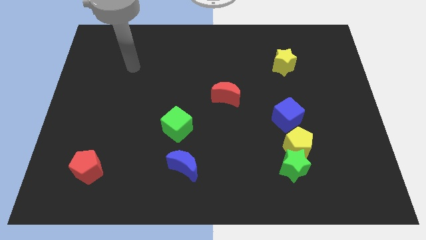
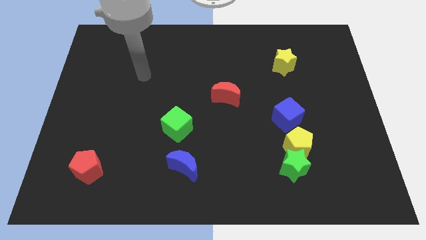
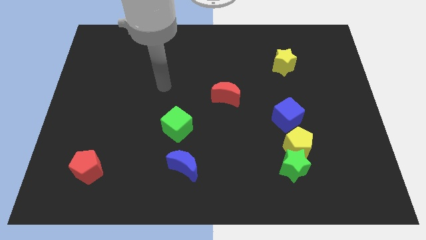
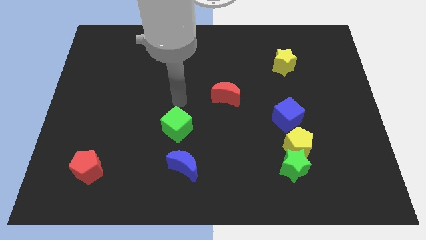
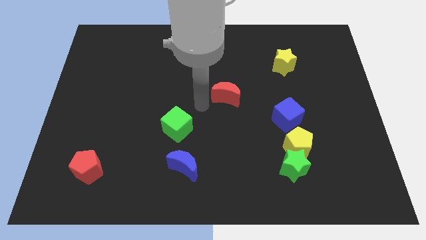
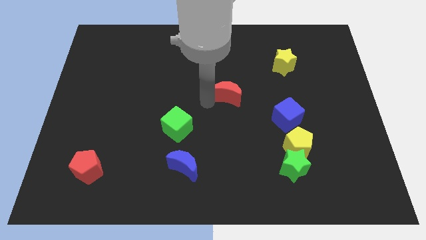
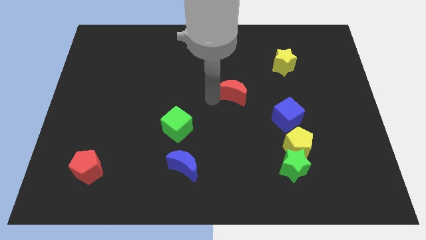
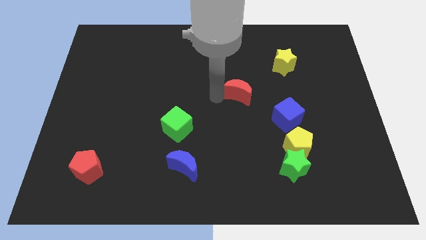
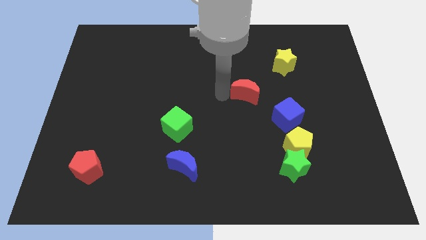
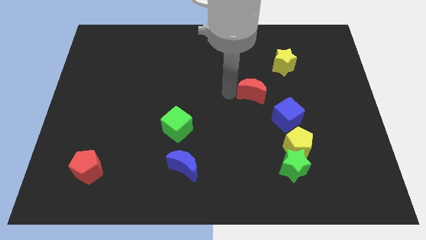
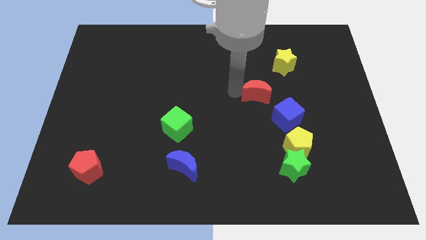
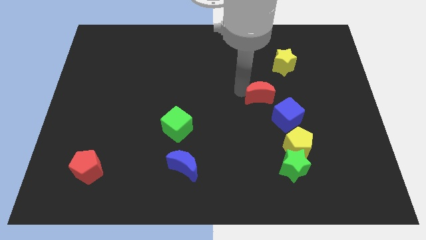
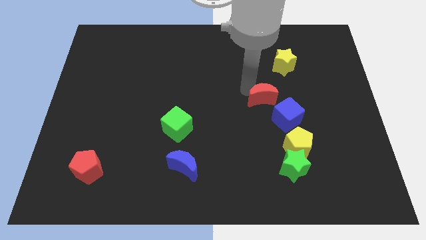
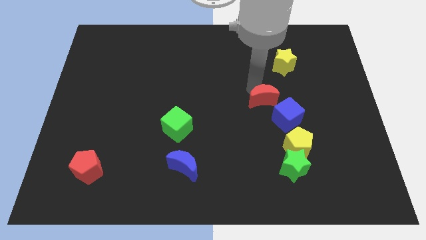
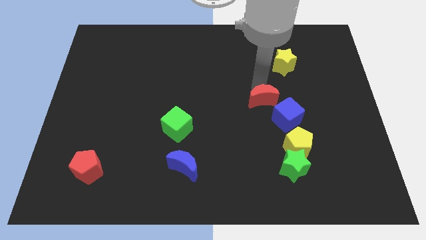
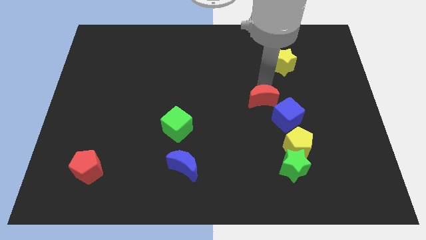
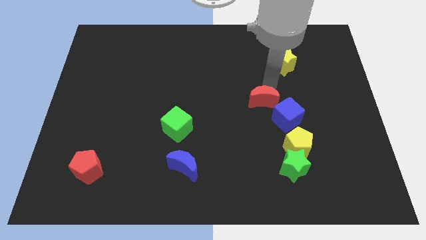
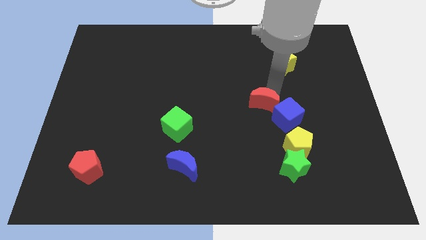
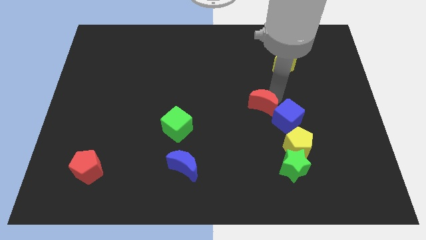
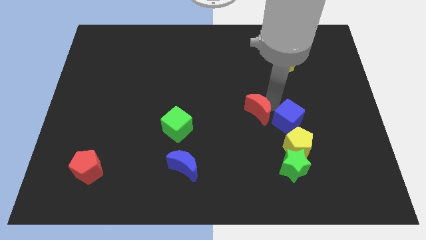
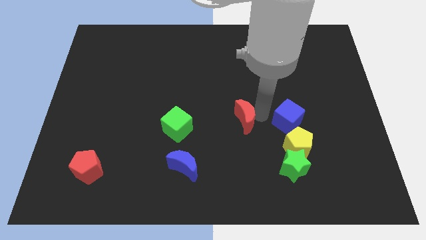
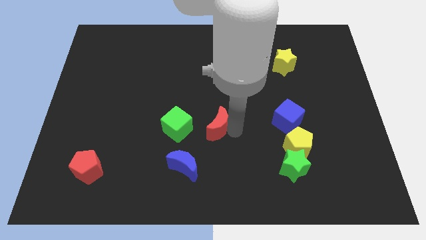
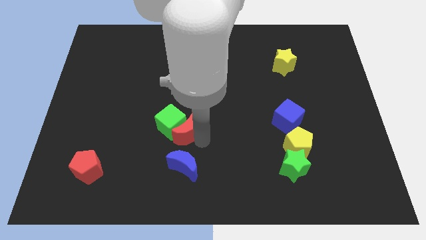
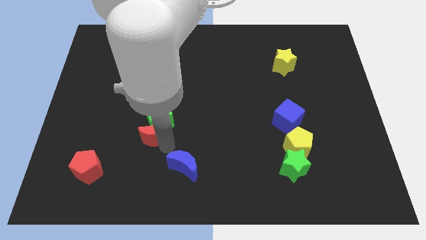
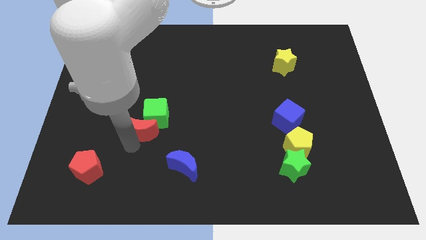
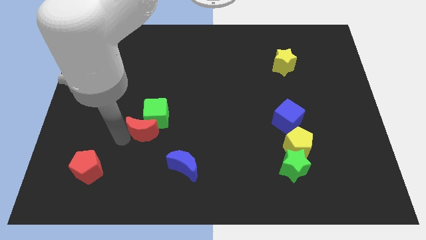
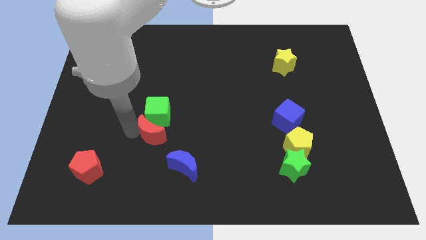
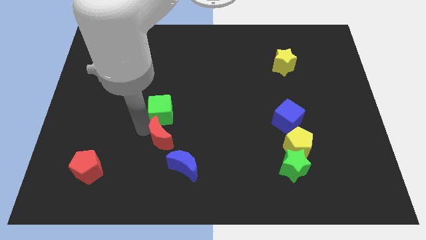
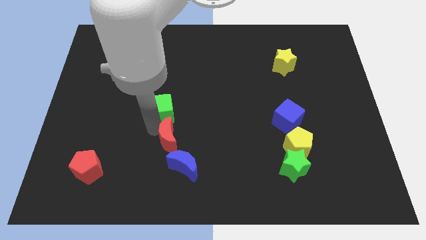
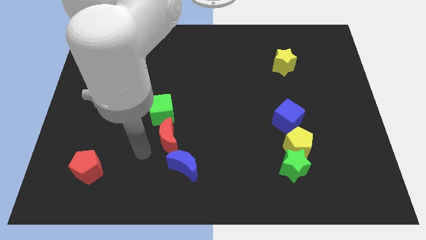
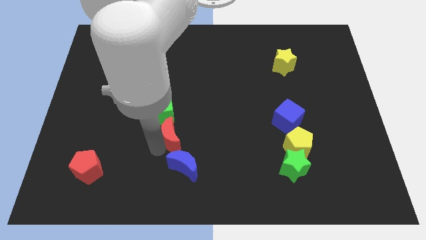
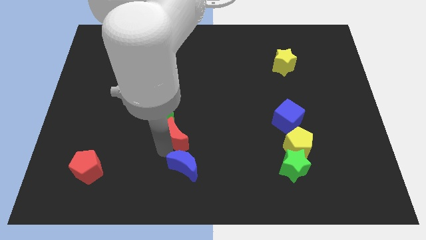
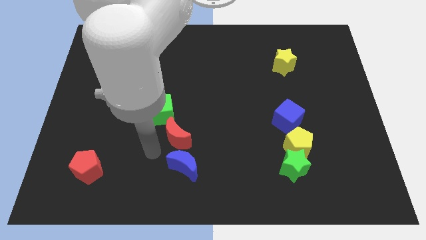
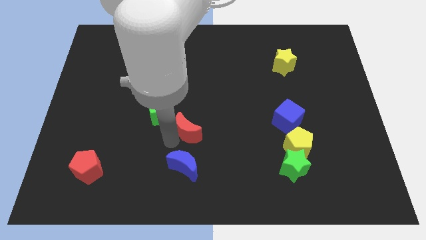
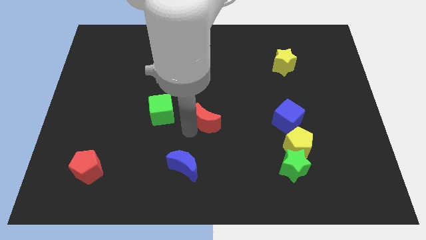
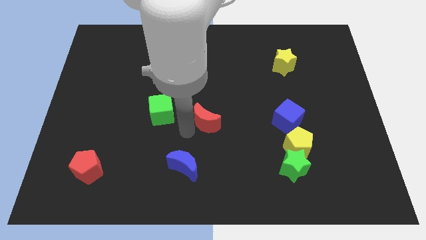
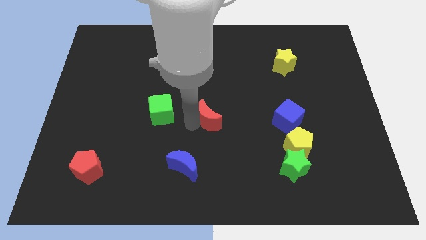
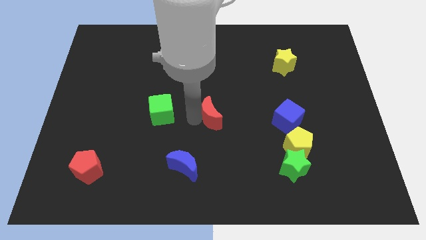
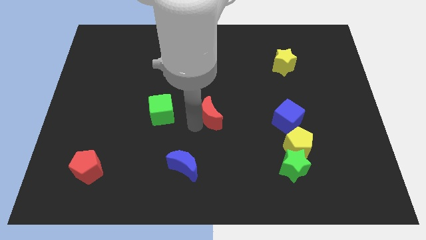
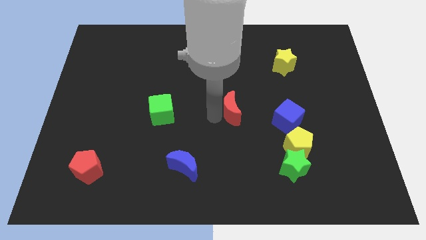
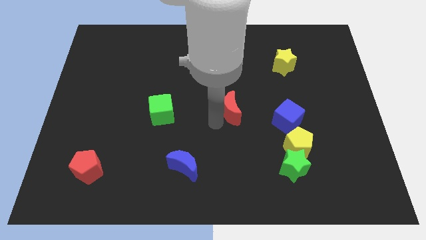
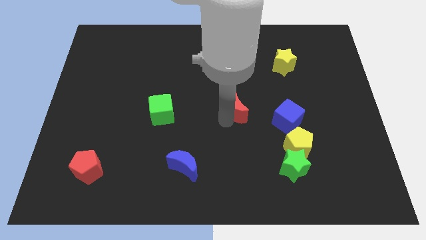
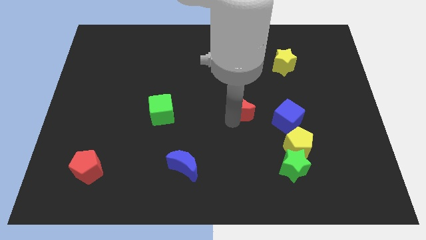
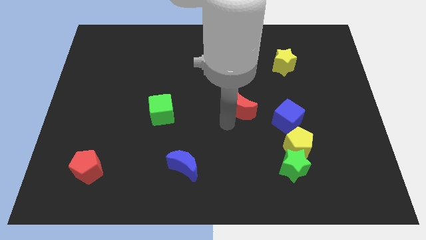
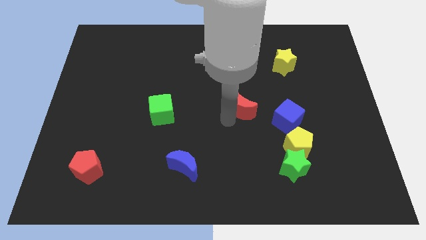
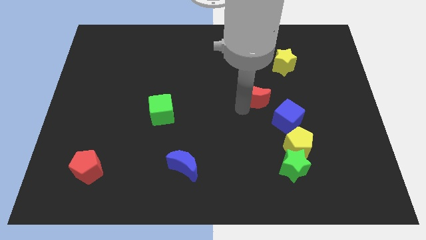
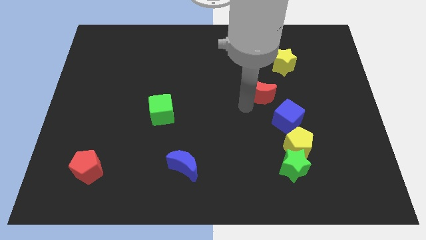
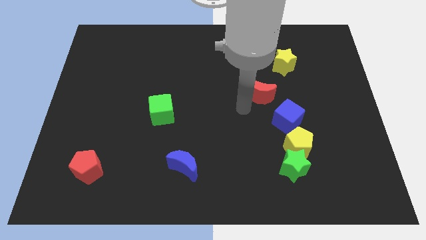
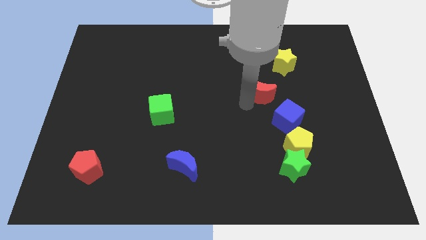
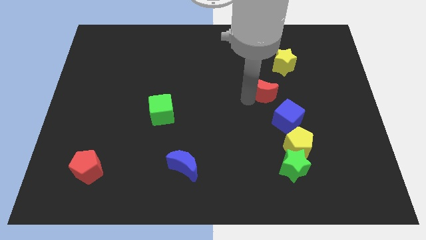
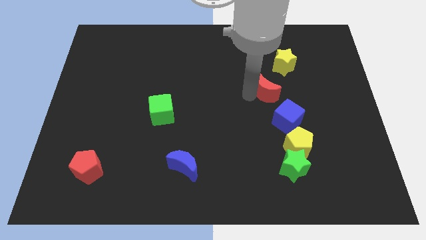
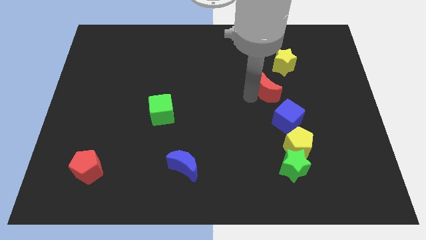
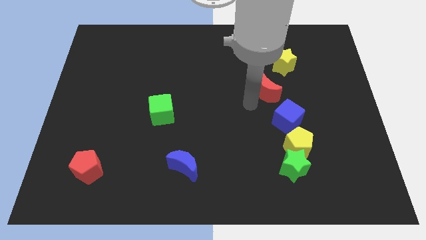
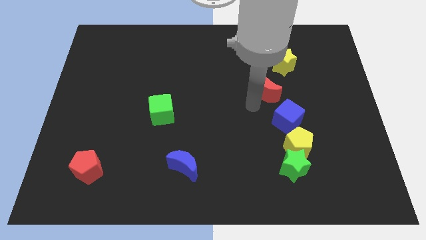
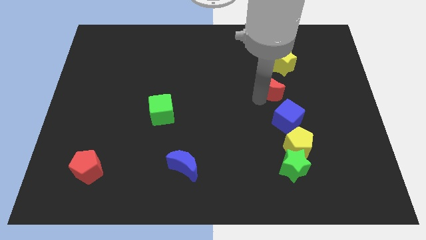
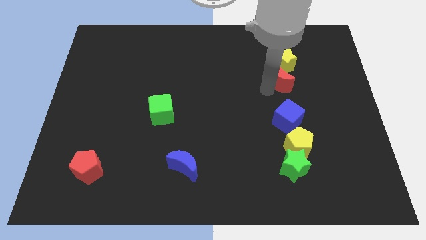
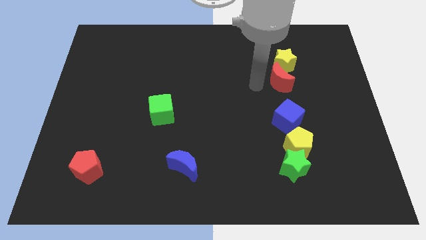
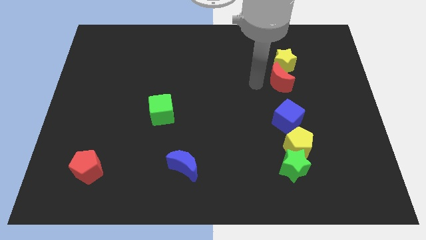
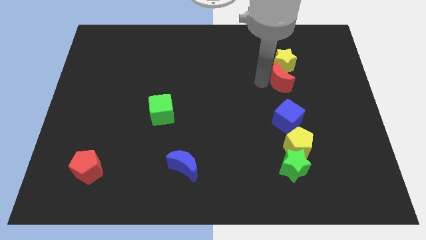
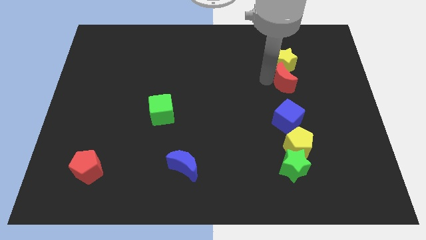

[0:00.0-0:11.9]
move the red moon to the bottom right side of the yellow star

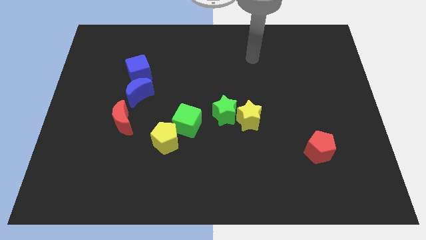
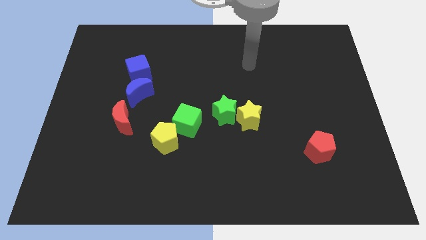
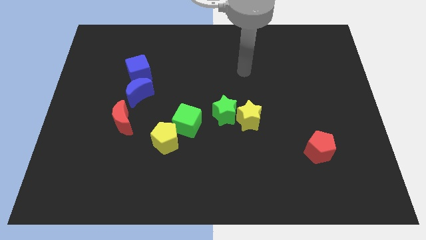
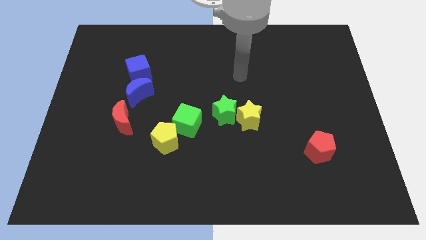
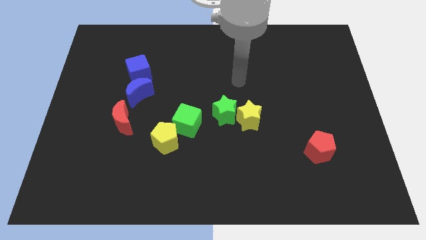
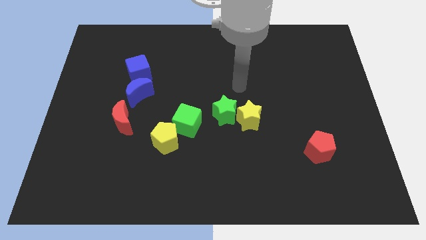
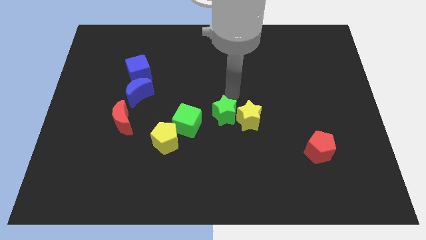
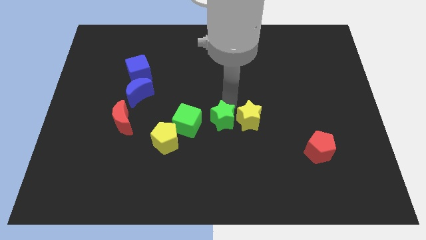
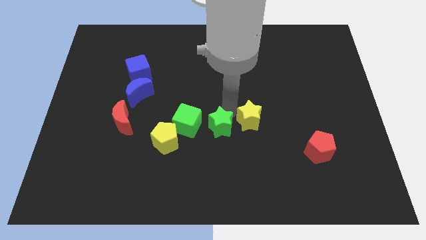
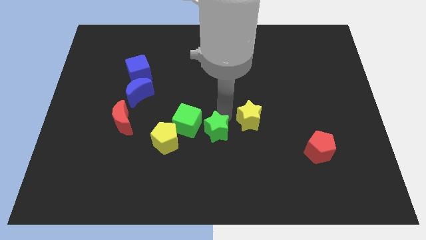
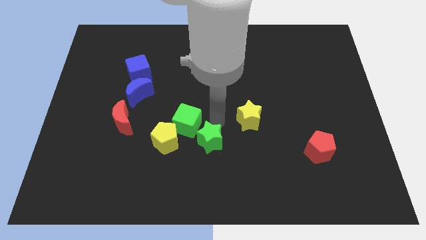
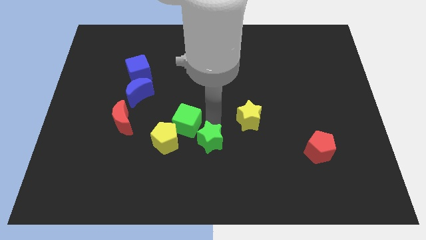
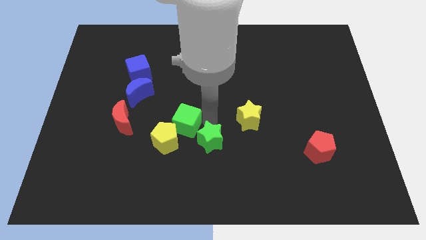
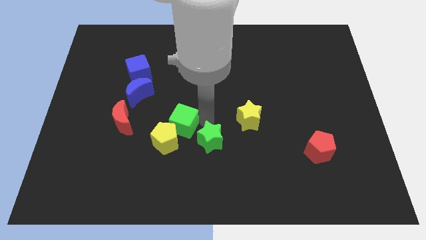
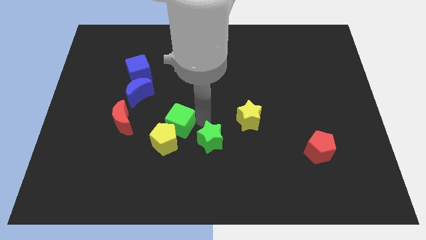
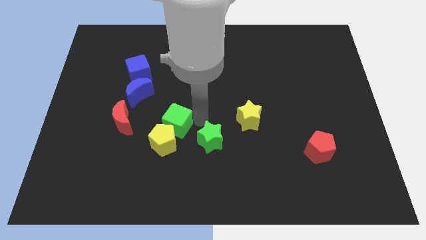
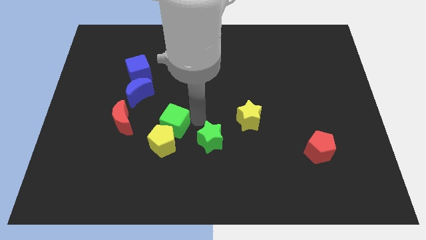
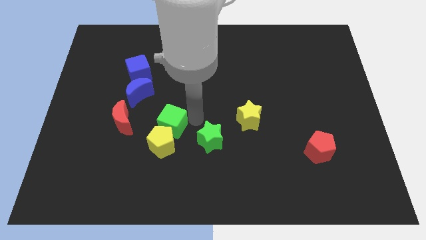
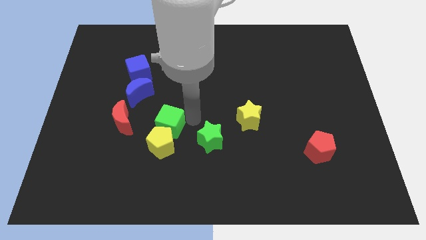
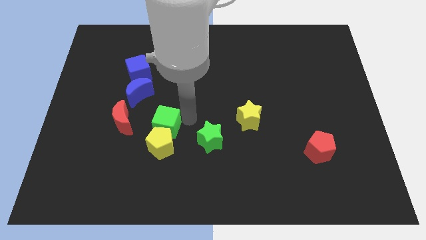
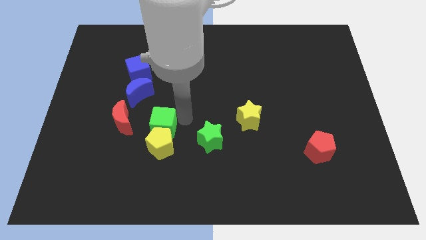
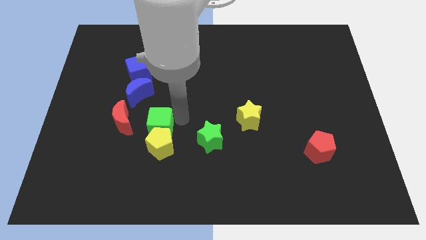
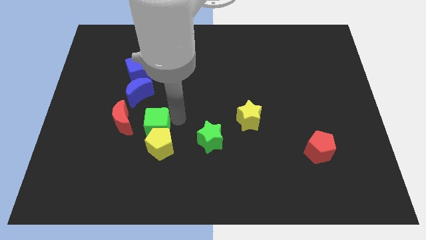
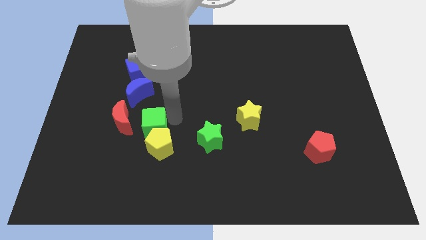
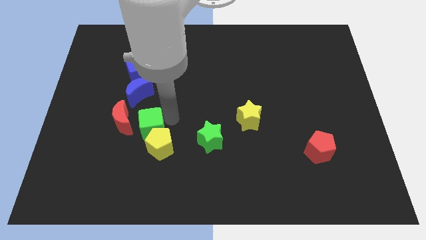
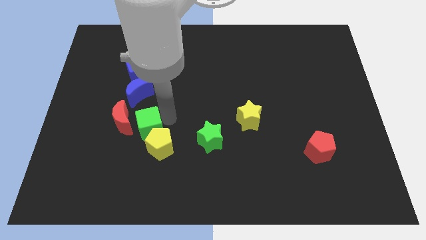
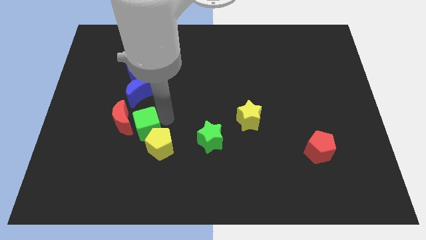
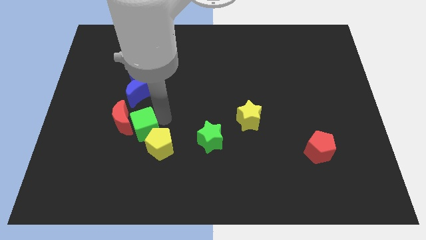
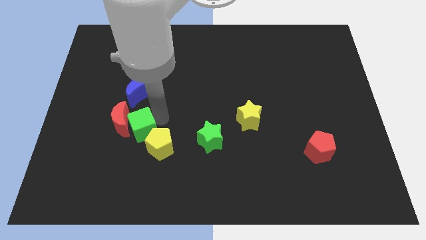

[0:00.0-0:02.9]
put the green cube to the left of the yellow pentagon
